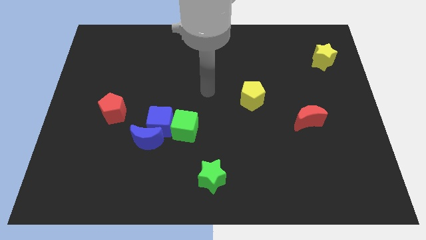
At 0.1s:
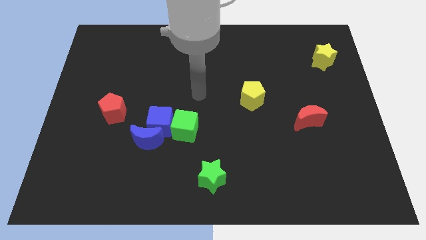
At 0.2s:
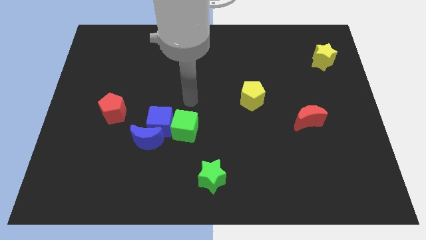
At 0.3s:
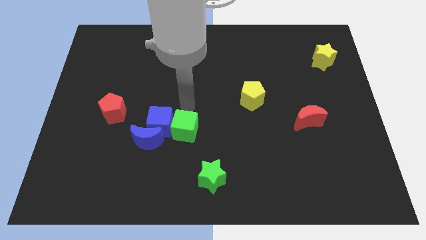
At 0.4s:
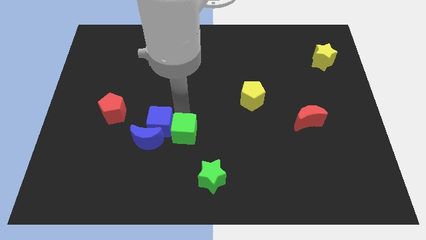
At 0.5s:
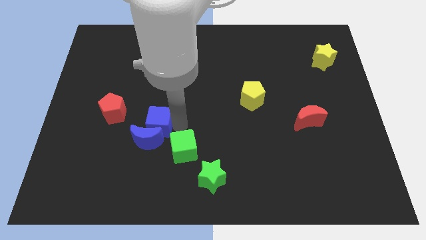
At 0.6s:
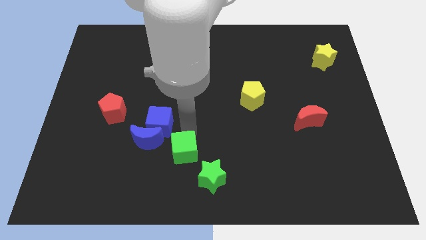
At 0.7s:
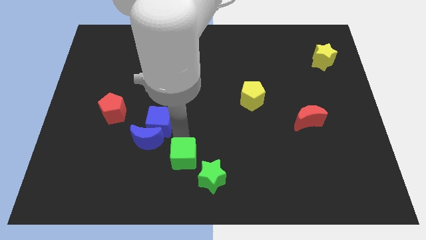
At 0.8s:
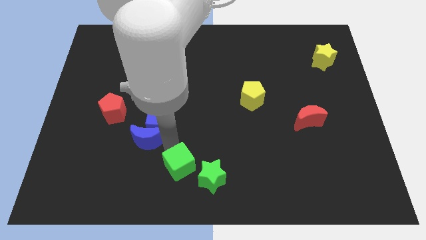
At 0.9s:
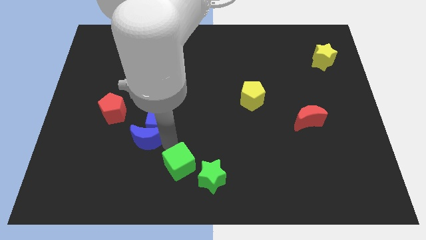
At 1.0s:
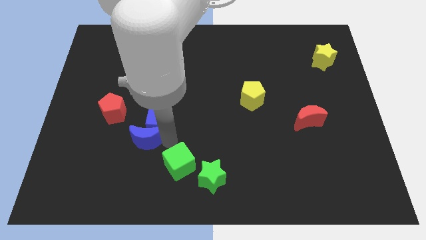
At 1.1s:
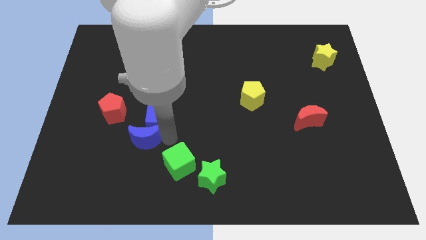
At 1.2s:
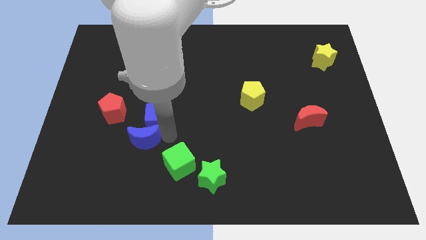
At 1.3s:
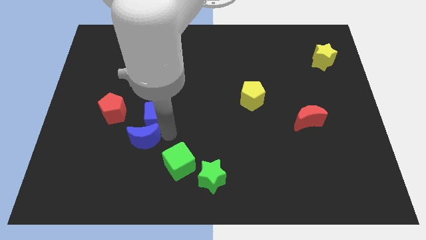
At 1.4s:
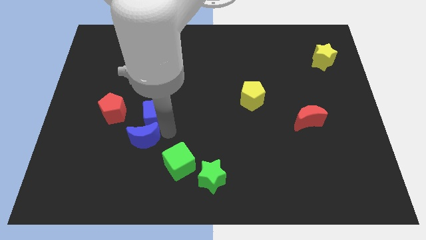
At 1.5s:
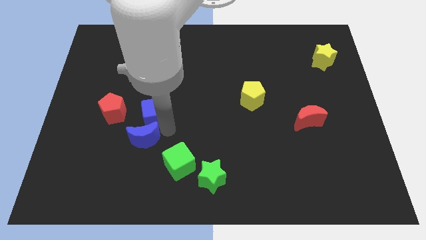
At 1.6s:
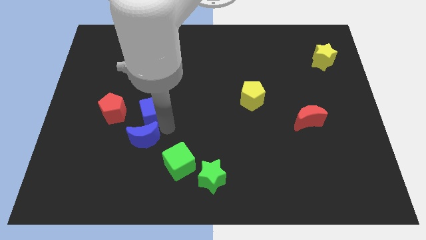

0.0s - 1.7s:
separate the blue cube from the blue moon and green cube

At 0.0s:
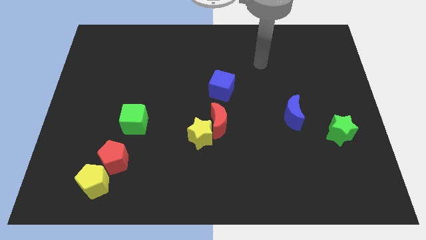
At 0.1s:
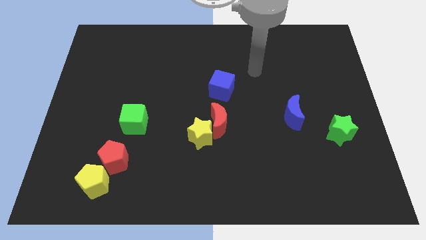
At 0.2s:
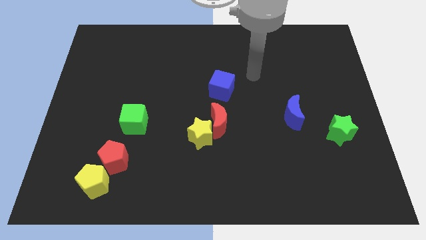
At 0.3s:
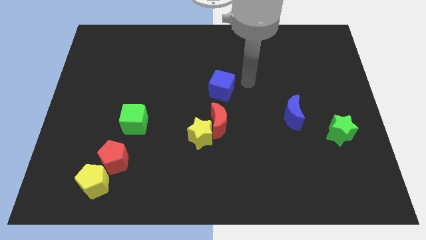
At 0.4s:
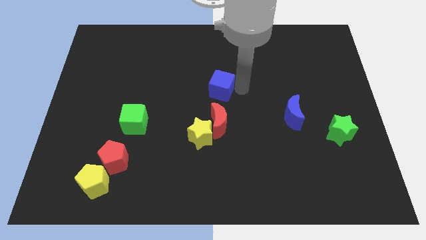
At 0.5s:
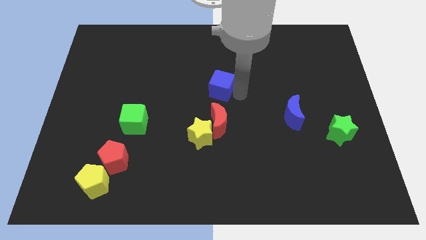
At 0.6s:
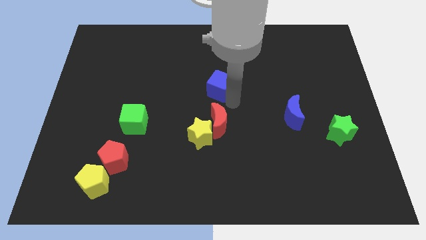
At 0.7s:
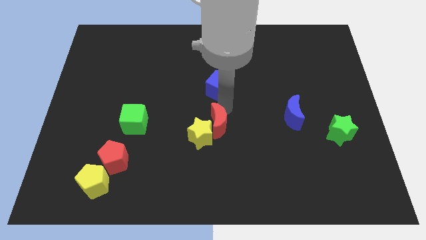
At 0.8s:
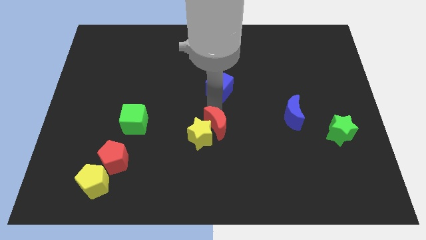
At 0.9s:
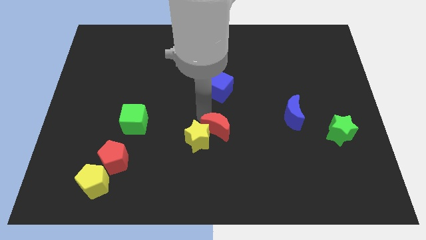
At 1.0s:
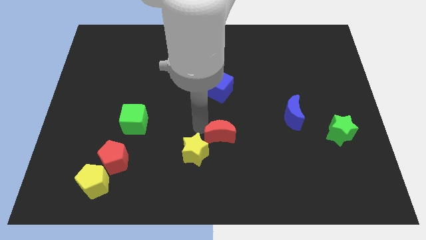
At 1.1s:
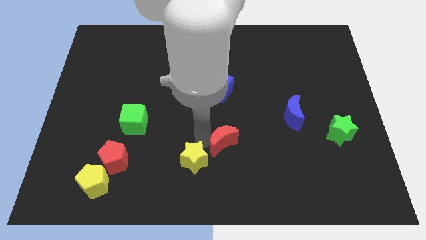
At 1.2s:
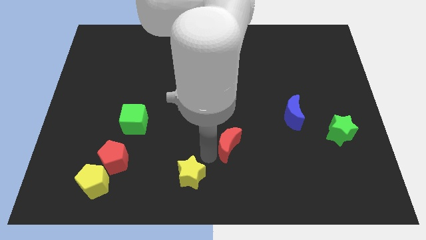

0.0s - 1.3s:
move the red moon away from the yellow star

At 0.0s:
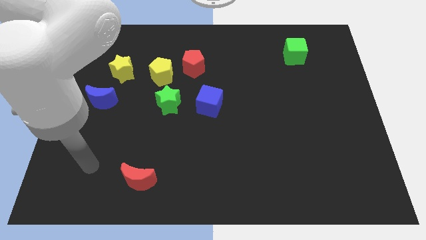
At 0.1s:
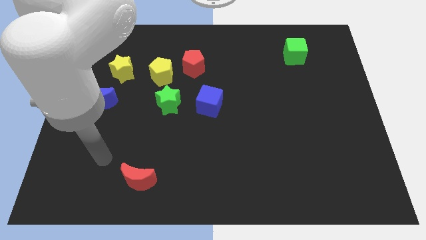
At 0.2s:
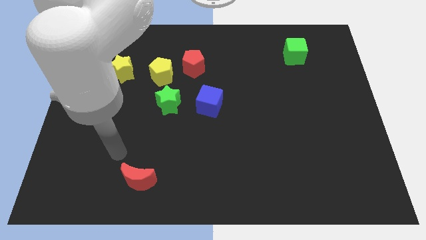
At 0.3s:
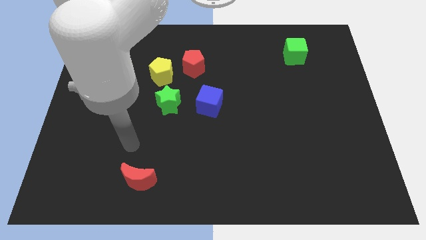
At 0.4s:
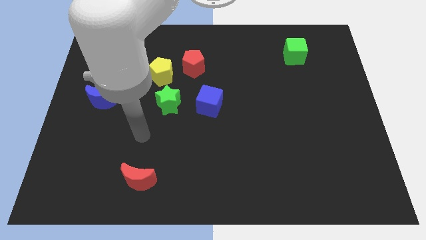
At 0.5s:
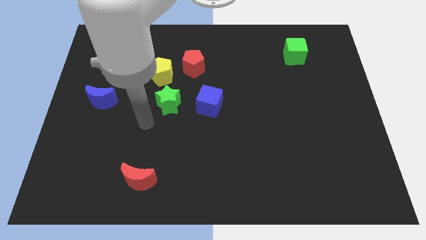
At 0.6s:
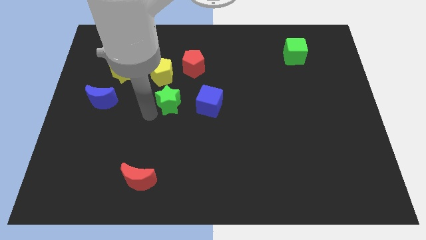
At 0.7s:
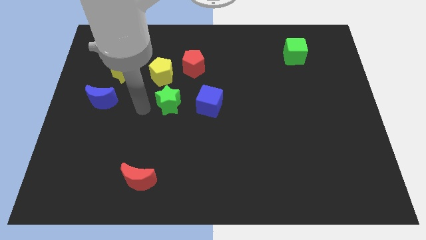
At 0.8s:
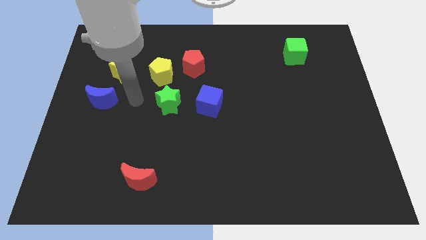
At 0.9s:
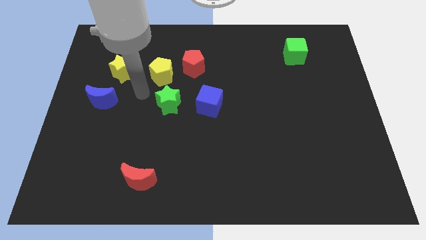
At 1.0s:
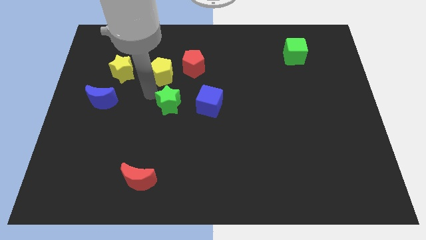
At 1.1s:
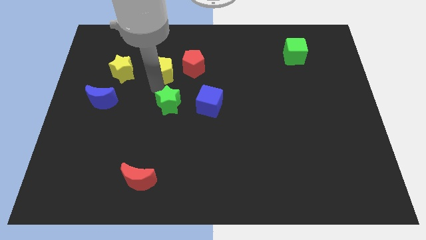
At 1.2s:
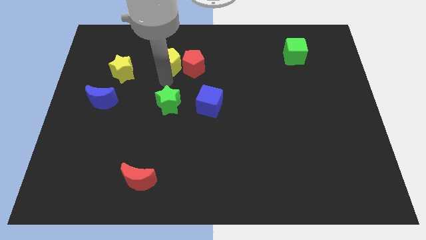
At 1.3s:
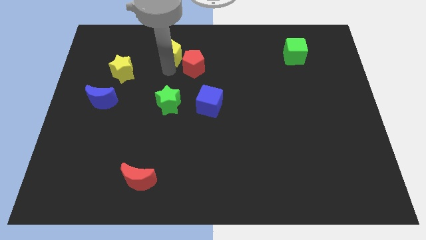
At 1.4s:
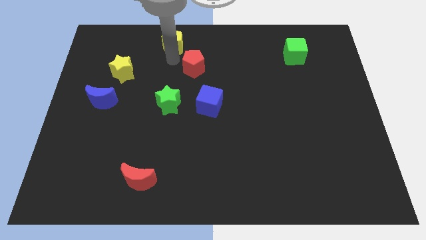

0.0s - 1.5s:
move the red pentagon away from the yellow pentagon

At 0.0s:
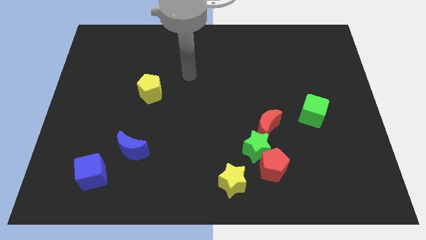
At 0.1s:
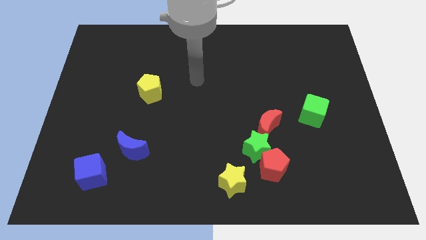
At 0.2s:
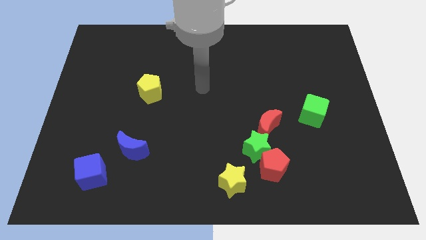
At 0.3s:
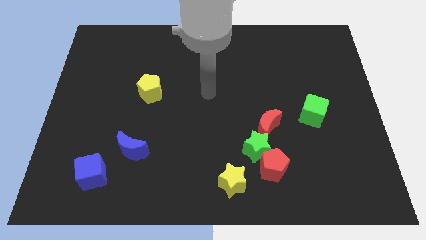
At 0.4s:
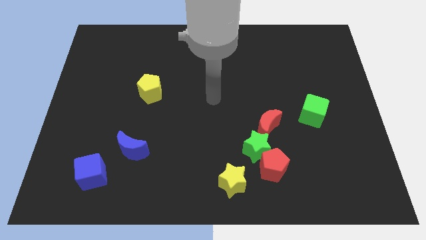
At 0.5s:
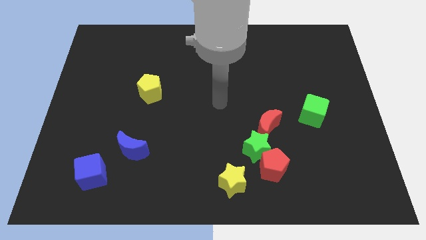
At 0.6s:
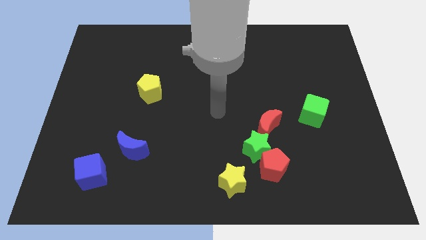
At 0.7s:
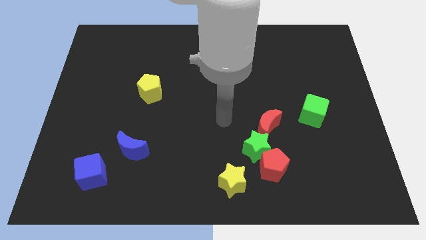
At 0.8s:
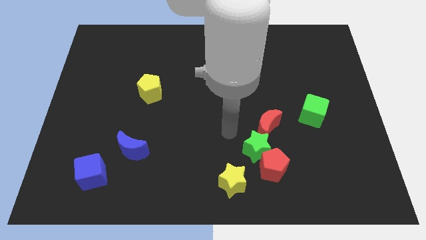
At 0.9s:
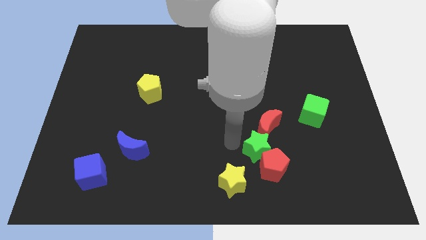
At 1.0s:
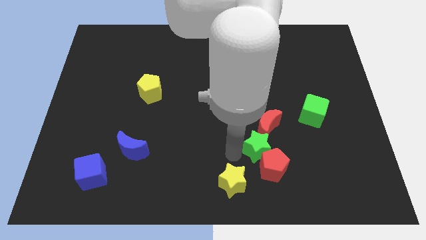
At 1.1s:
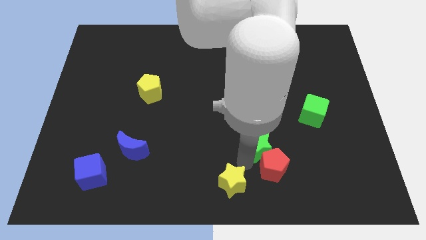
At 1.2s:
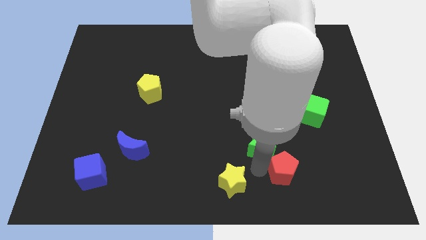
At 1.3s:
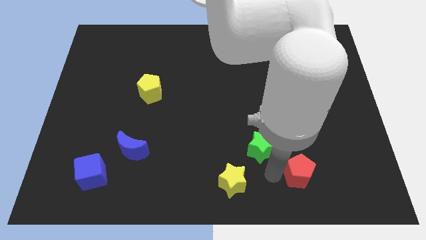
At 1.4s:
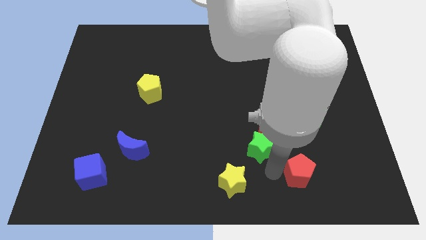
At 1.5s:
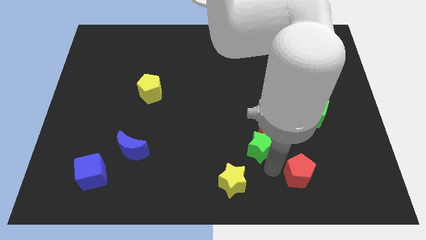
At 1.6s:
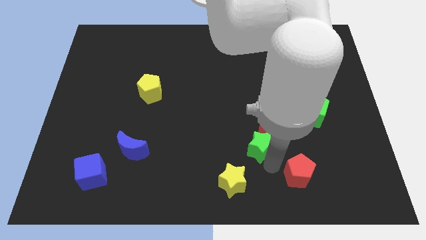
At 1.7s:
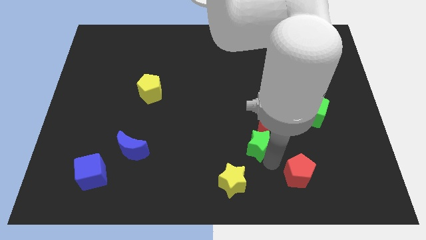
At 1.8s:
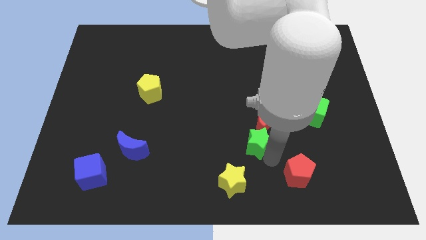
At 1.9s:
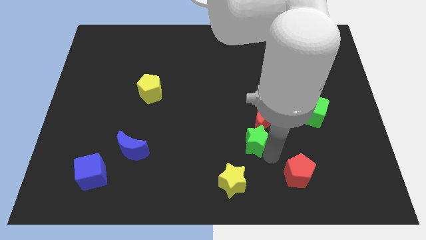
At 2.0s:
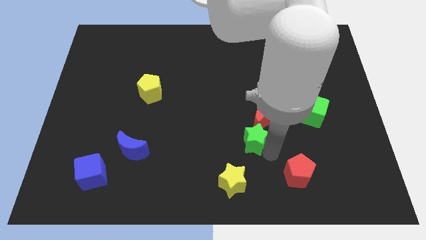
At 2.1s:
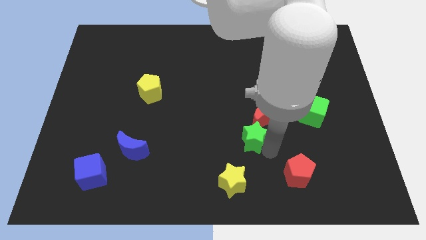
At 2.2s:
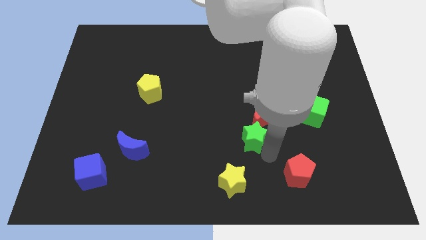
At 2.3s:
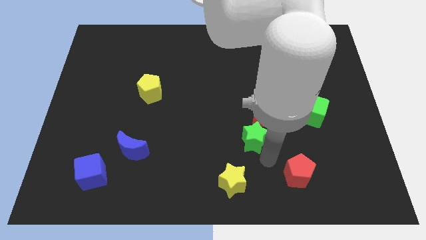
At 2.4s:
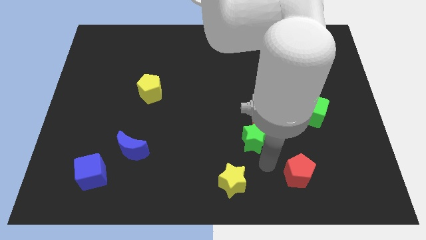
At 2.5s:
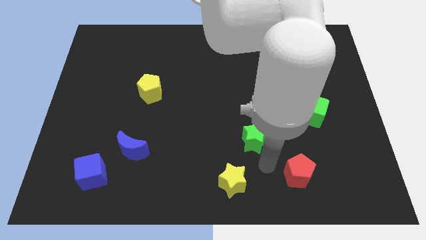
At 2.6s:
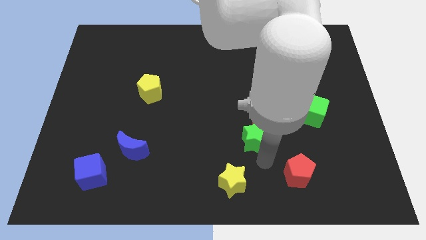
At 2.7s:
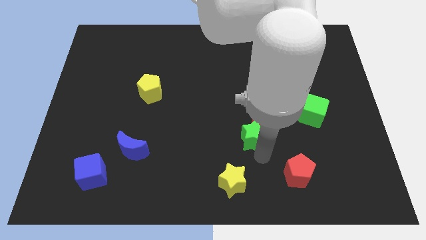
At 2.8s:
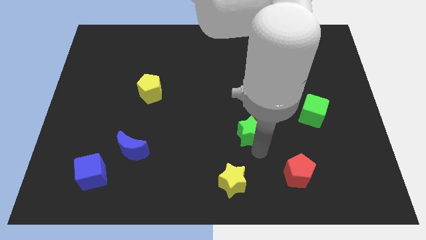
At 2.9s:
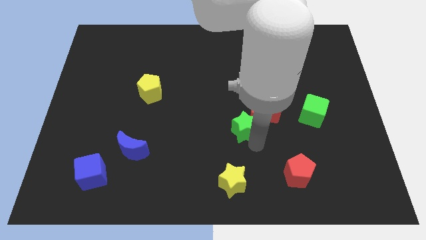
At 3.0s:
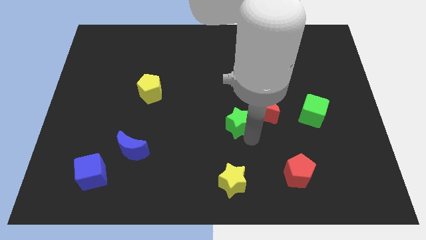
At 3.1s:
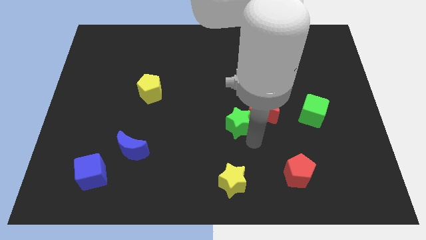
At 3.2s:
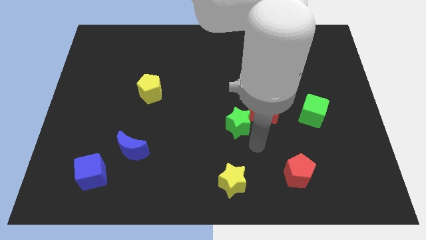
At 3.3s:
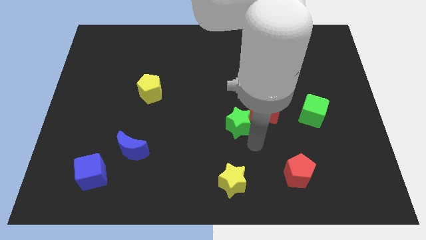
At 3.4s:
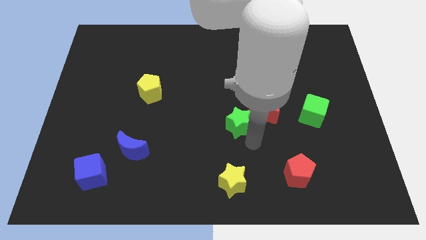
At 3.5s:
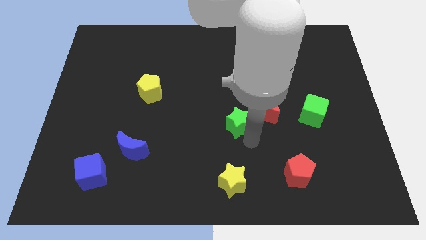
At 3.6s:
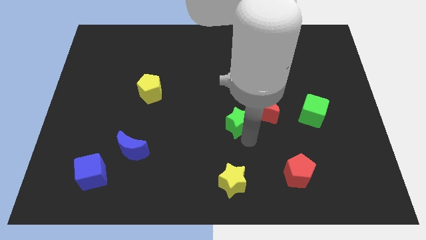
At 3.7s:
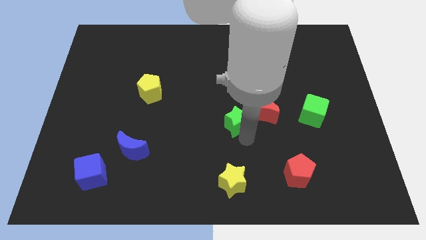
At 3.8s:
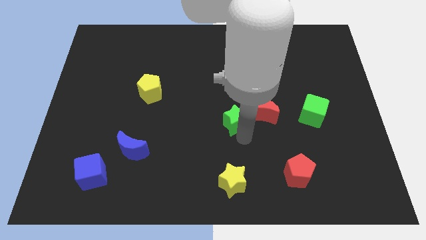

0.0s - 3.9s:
pull the green star apart from the red pentagon, red moon, and yellow star

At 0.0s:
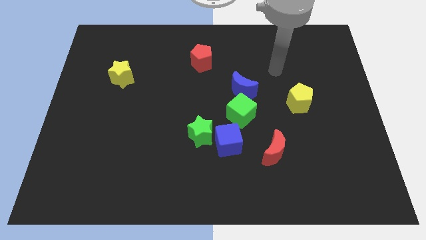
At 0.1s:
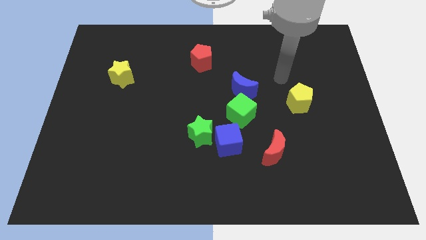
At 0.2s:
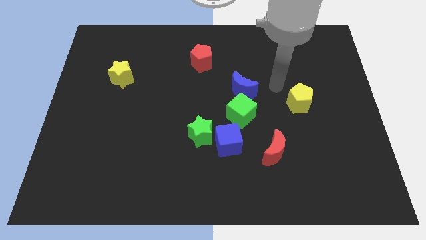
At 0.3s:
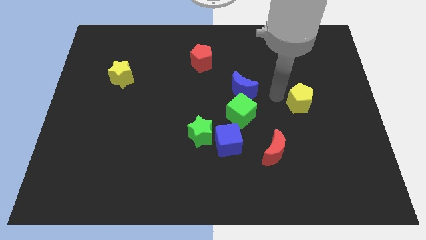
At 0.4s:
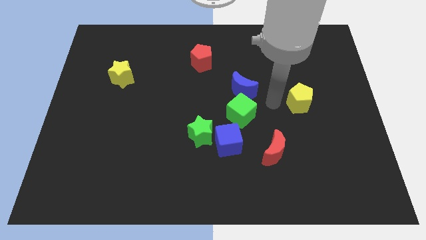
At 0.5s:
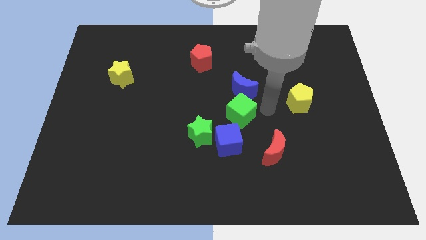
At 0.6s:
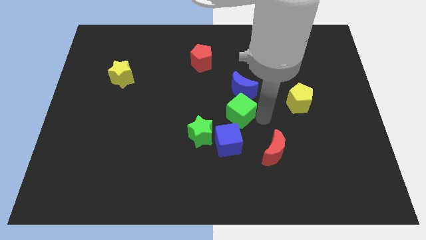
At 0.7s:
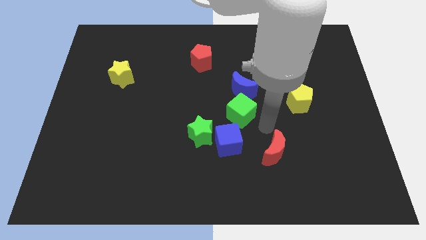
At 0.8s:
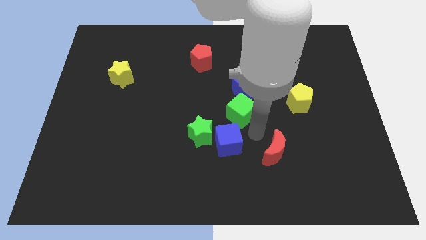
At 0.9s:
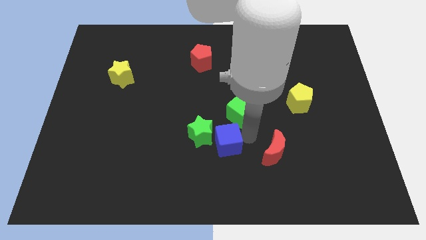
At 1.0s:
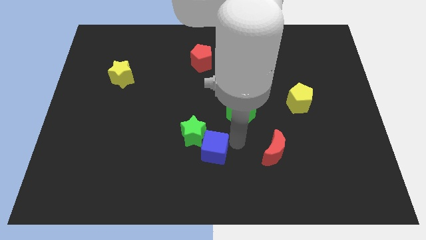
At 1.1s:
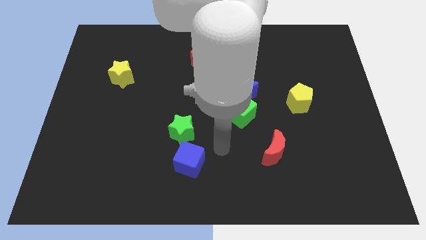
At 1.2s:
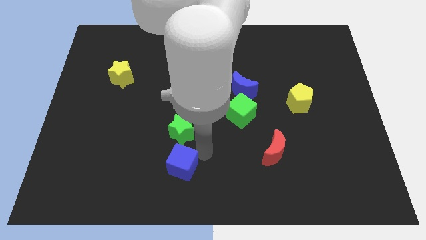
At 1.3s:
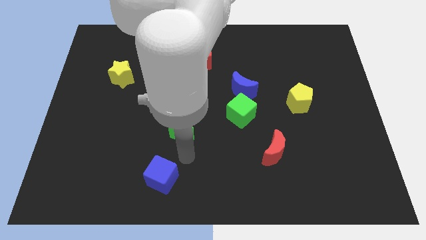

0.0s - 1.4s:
pull the green star apart from the blue cube
